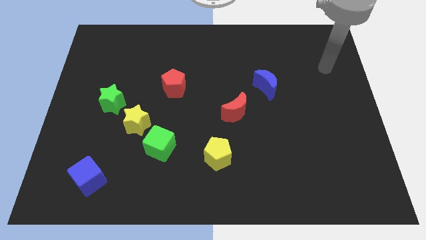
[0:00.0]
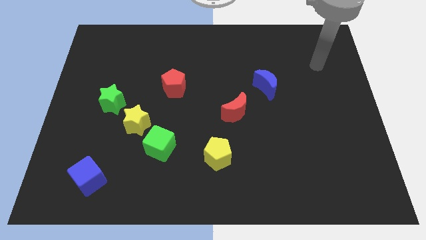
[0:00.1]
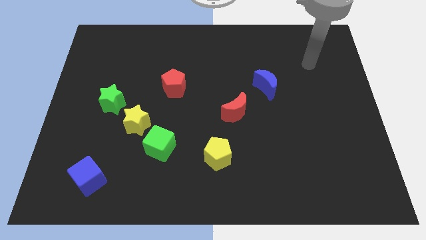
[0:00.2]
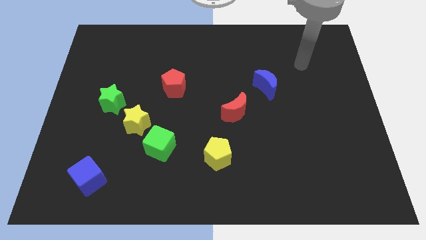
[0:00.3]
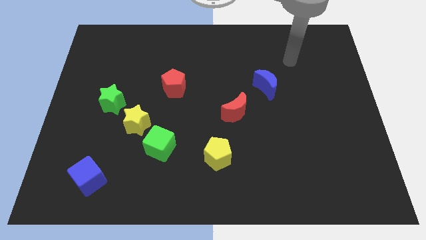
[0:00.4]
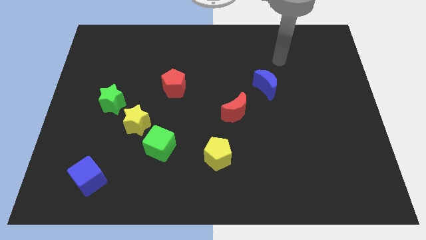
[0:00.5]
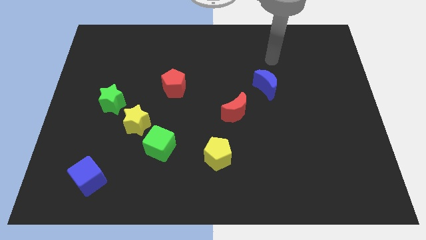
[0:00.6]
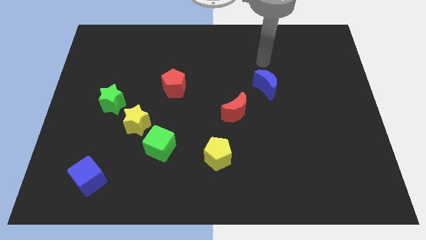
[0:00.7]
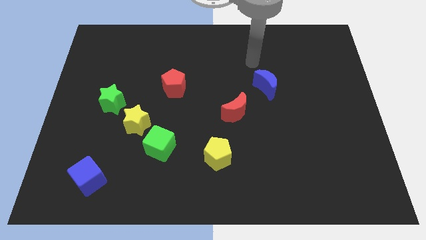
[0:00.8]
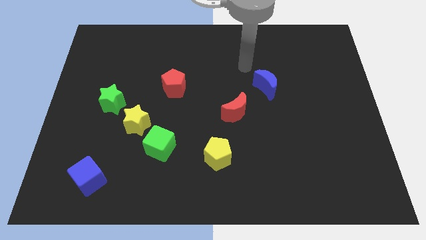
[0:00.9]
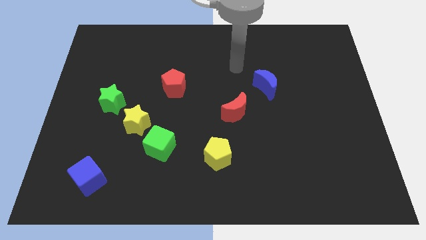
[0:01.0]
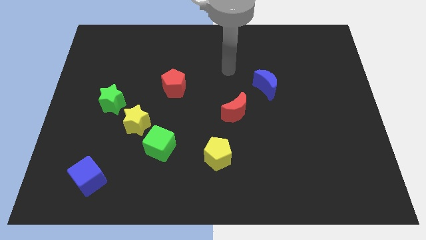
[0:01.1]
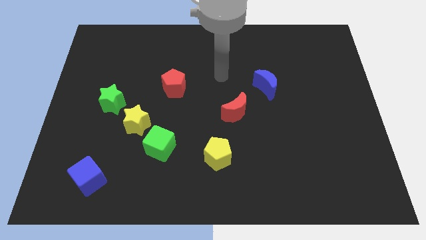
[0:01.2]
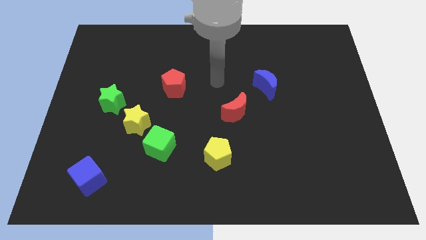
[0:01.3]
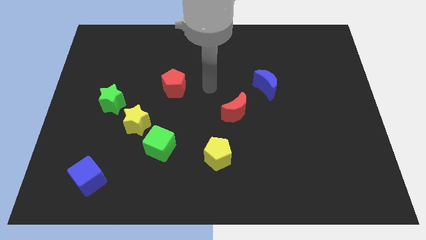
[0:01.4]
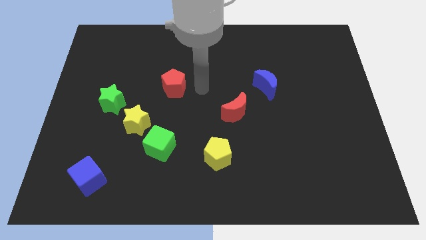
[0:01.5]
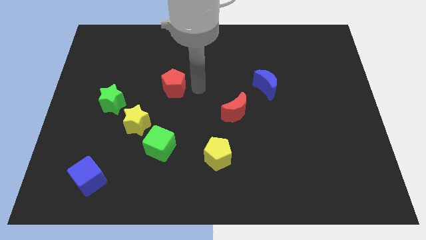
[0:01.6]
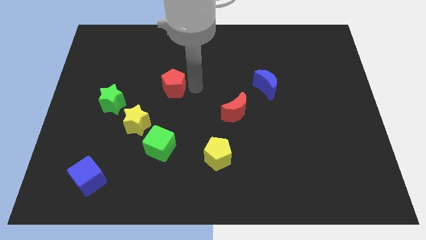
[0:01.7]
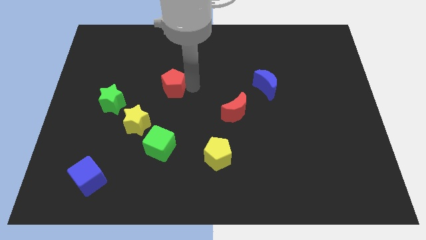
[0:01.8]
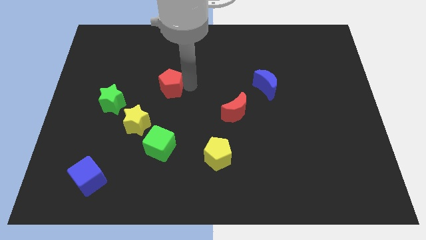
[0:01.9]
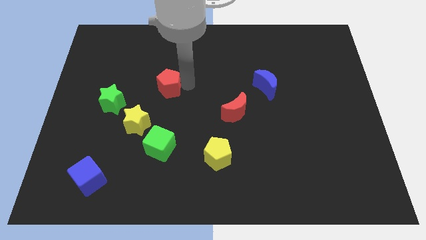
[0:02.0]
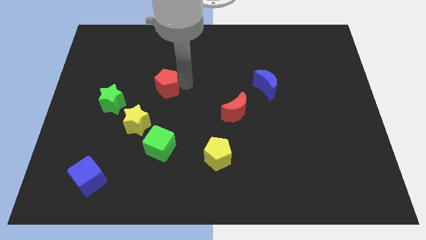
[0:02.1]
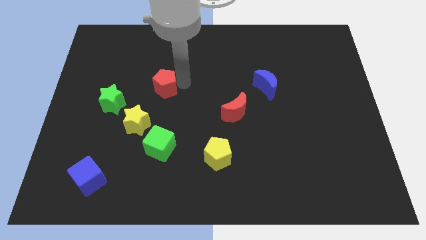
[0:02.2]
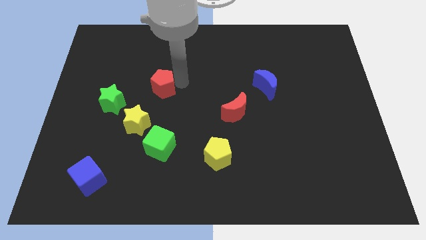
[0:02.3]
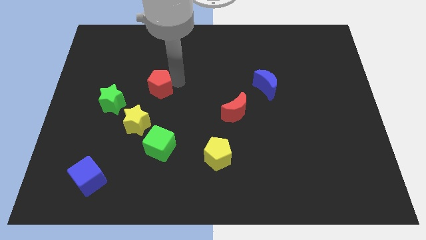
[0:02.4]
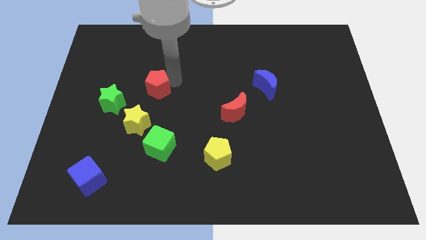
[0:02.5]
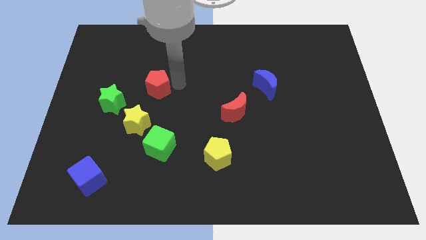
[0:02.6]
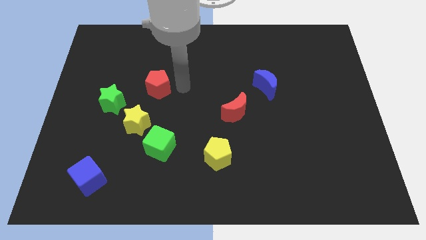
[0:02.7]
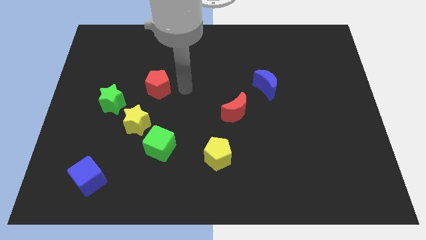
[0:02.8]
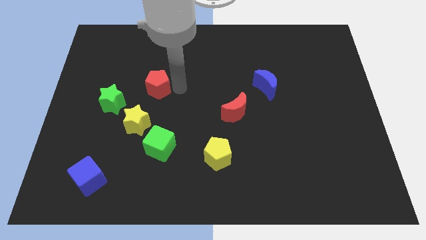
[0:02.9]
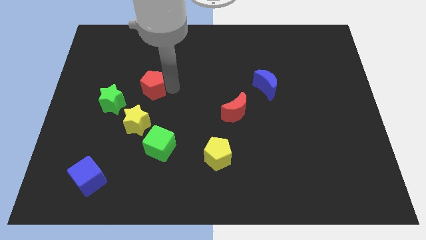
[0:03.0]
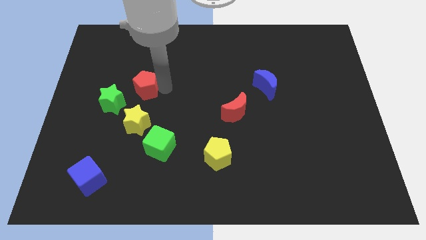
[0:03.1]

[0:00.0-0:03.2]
slightly slide the red pentagon to the left

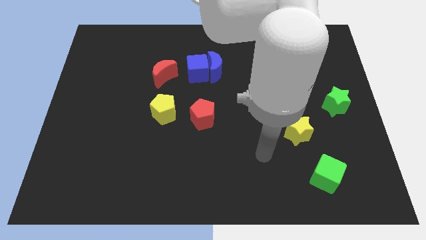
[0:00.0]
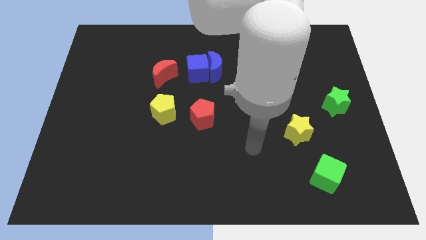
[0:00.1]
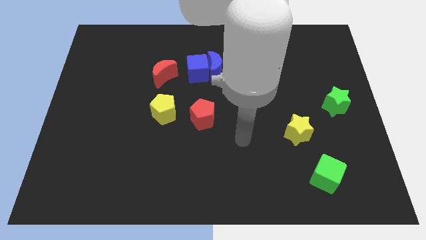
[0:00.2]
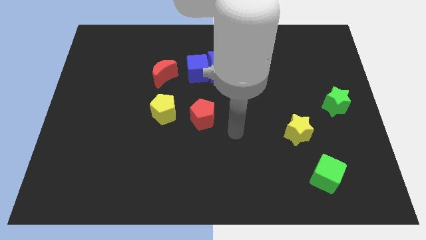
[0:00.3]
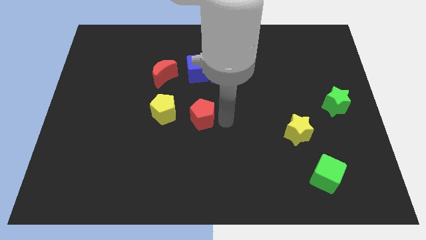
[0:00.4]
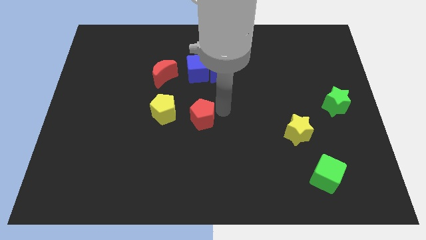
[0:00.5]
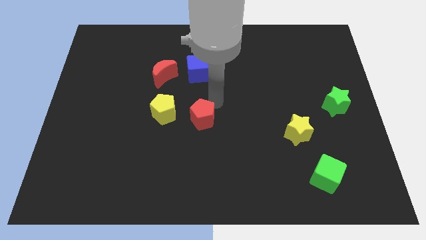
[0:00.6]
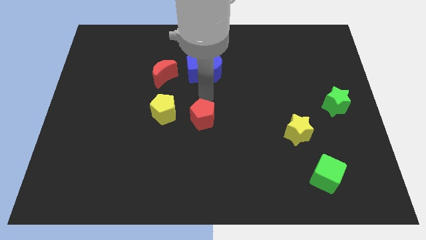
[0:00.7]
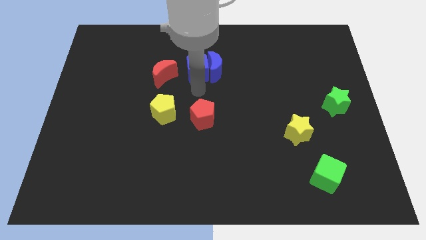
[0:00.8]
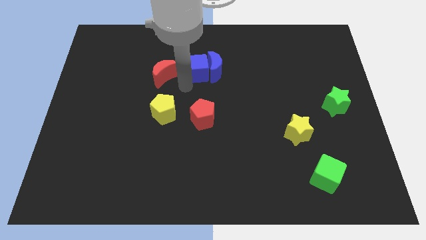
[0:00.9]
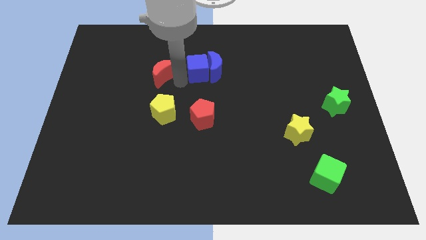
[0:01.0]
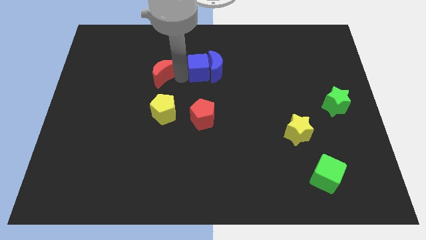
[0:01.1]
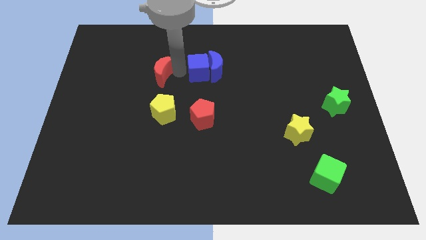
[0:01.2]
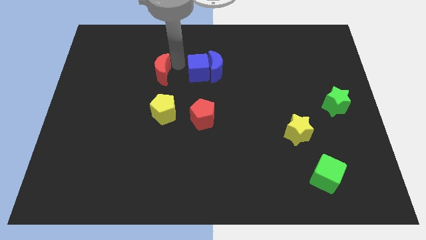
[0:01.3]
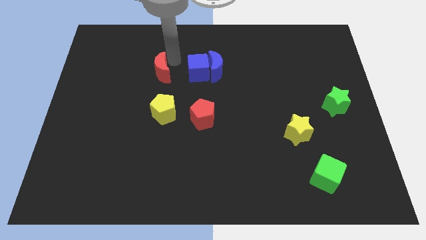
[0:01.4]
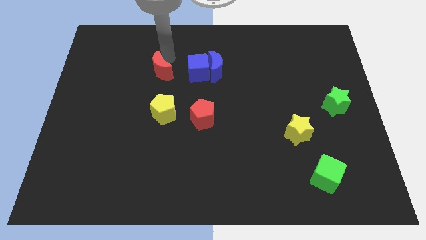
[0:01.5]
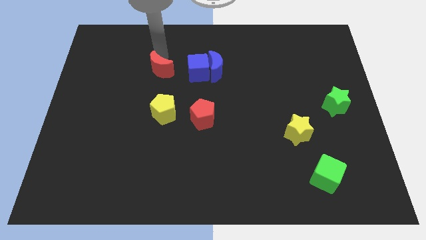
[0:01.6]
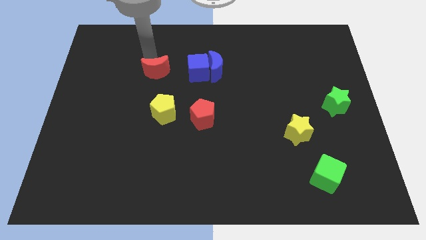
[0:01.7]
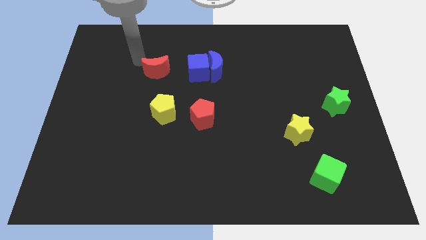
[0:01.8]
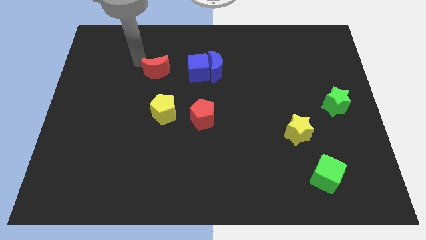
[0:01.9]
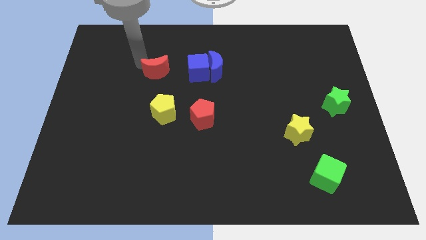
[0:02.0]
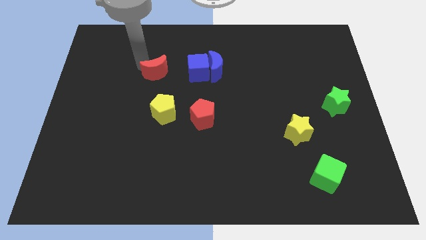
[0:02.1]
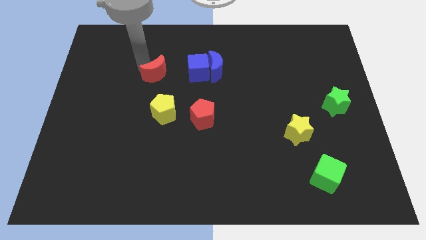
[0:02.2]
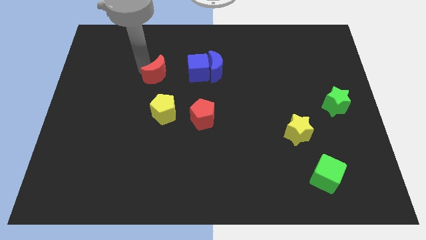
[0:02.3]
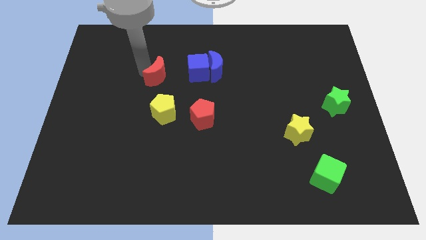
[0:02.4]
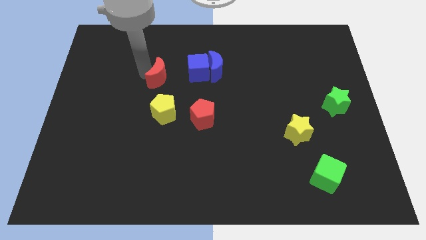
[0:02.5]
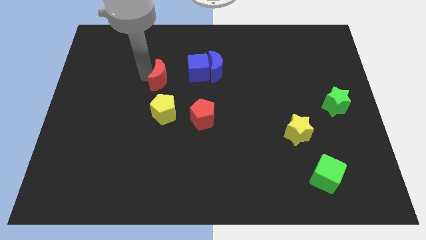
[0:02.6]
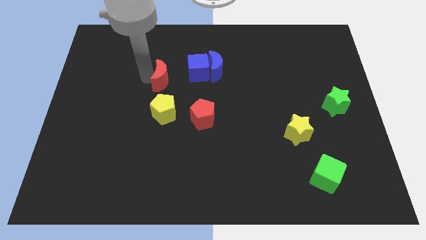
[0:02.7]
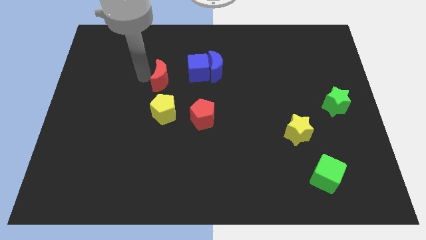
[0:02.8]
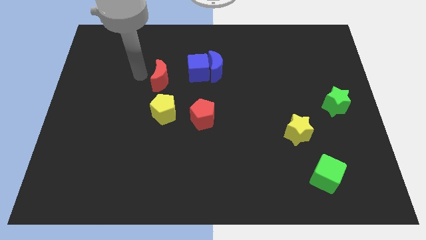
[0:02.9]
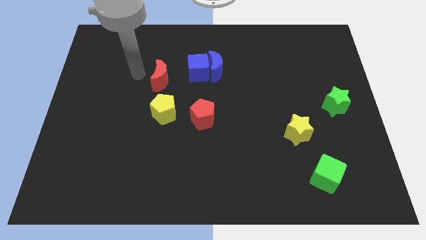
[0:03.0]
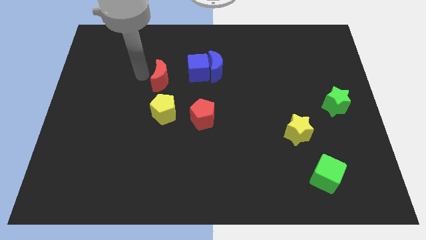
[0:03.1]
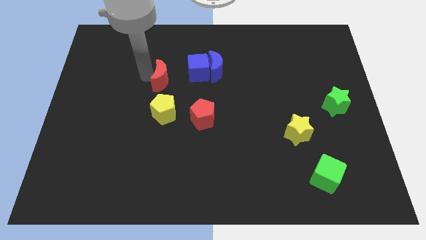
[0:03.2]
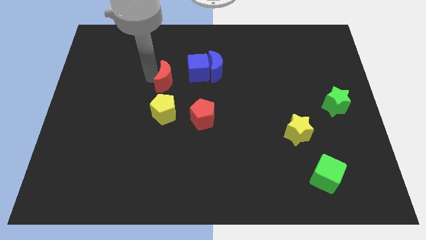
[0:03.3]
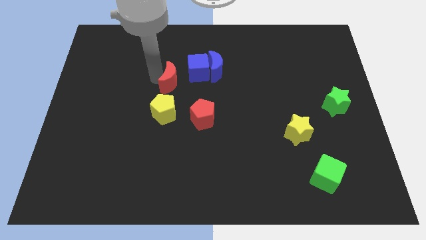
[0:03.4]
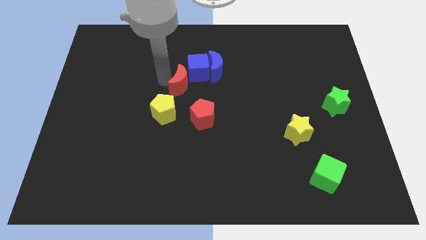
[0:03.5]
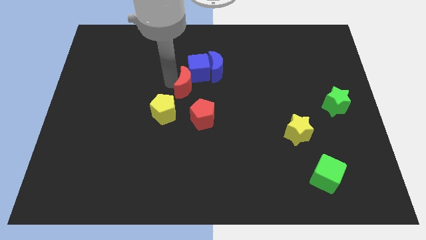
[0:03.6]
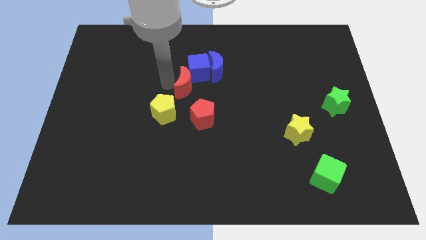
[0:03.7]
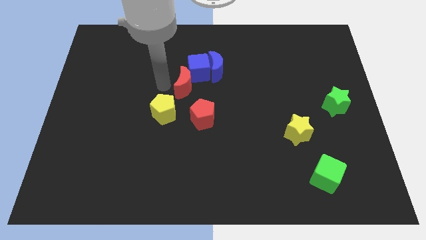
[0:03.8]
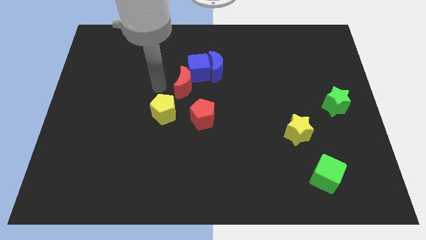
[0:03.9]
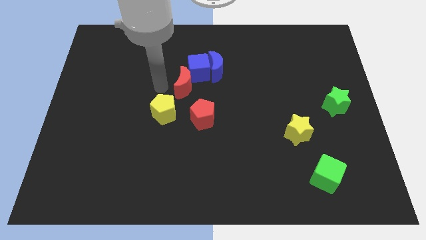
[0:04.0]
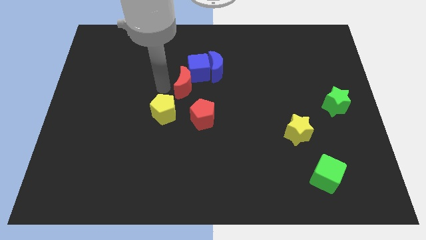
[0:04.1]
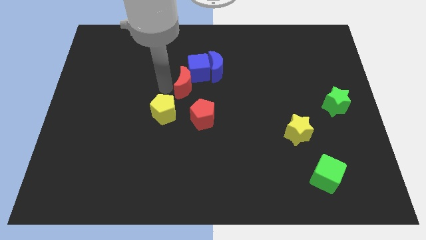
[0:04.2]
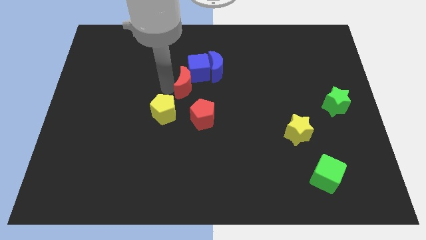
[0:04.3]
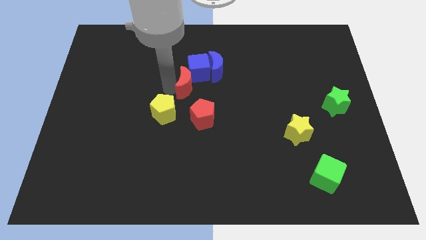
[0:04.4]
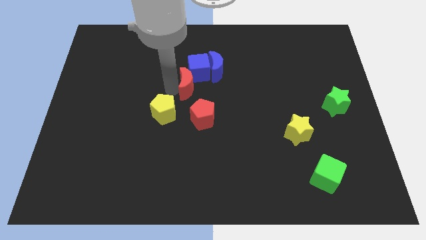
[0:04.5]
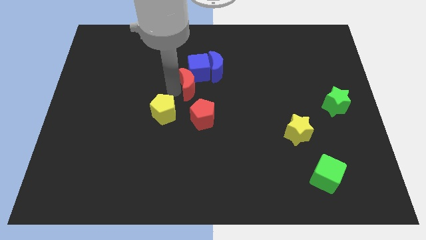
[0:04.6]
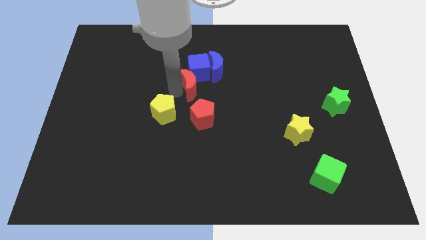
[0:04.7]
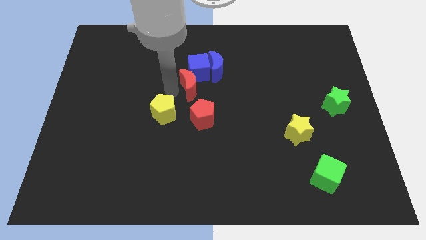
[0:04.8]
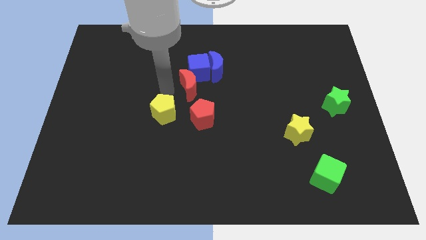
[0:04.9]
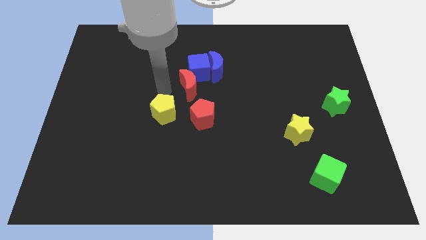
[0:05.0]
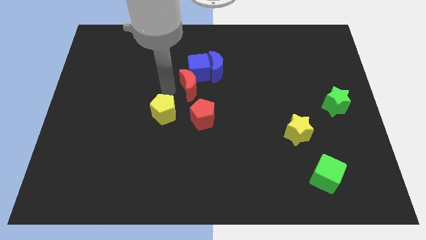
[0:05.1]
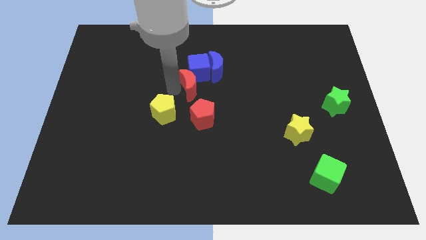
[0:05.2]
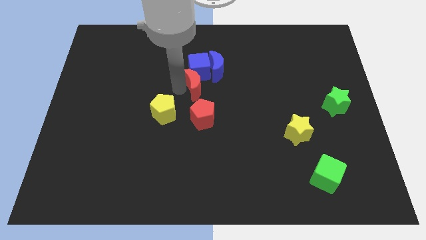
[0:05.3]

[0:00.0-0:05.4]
push the red moon somewhat to the right
